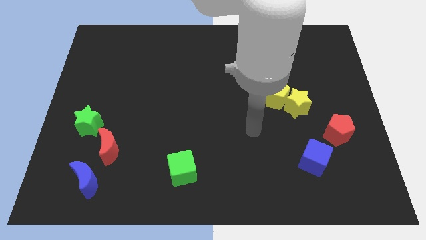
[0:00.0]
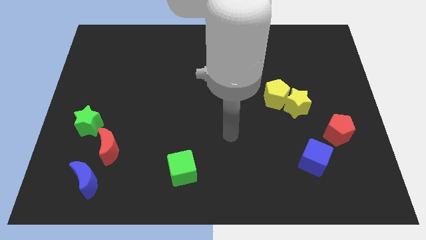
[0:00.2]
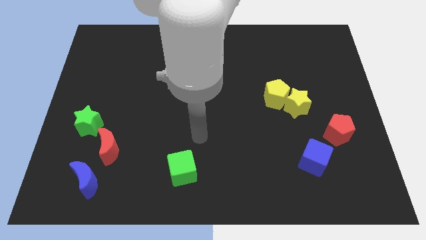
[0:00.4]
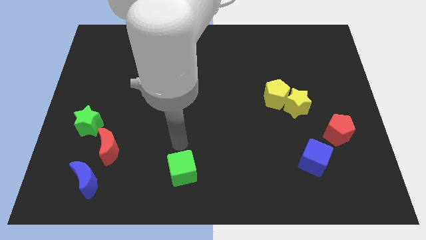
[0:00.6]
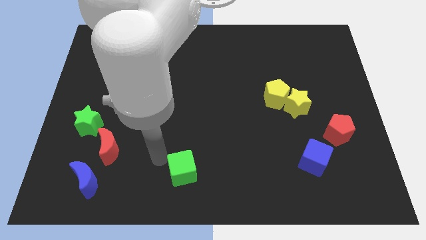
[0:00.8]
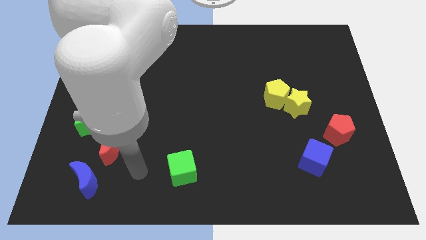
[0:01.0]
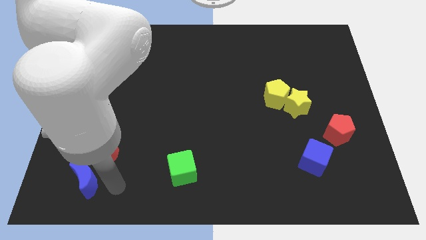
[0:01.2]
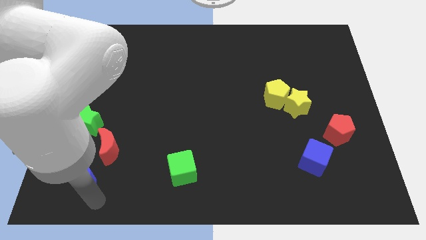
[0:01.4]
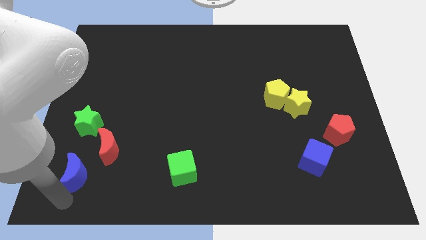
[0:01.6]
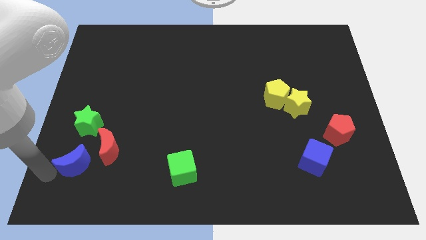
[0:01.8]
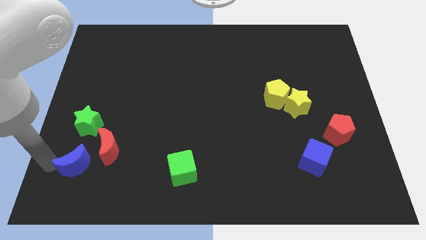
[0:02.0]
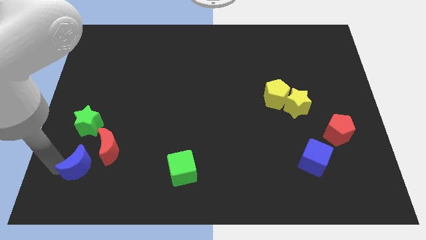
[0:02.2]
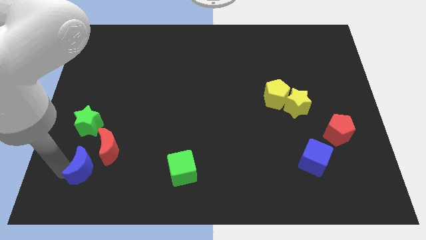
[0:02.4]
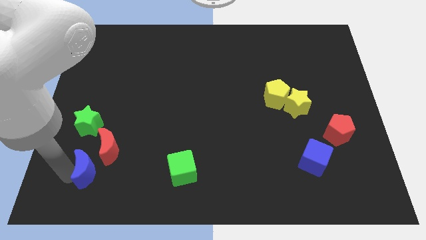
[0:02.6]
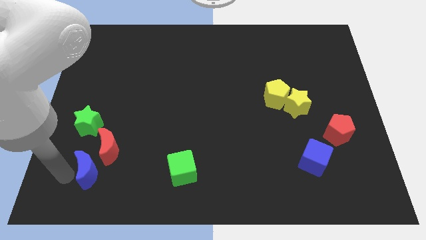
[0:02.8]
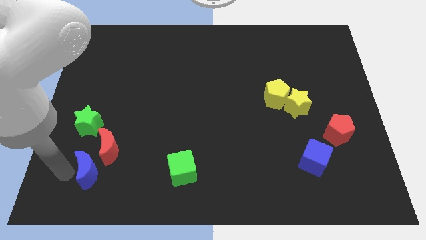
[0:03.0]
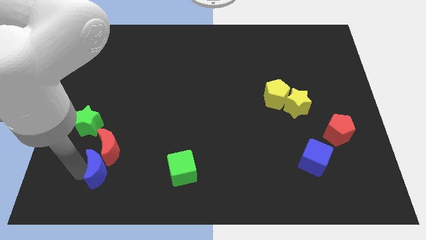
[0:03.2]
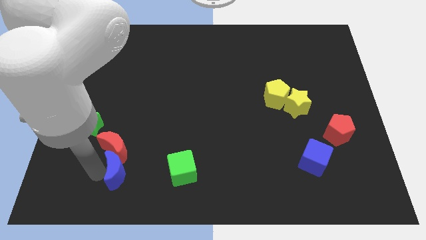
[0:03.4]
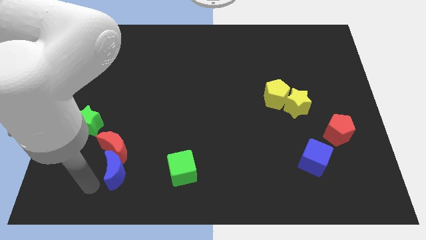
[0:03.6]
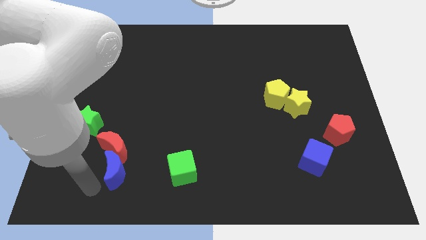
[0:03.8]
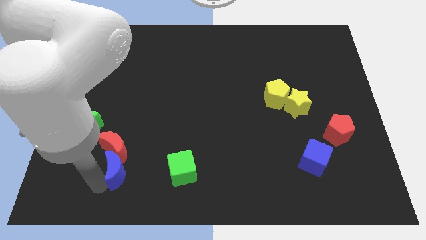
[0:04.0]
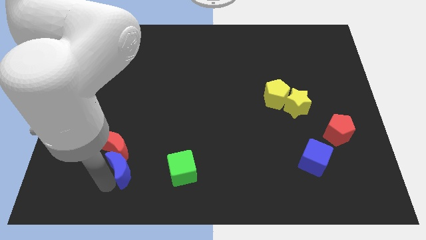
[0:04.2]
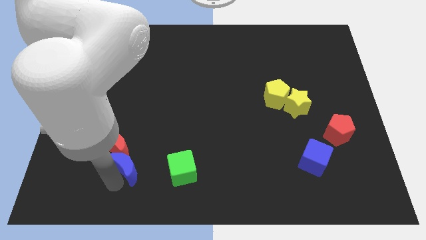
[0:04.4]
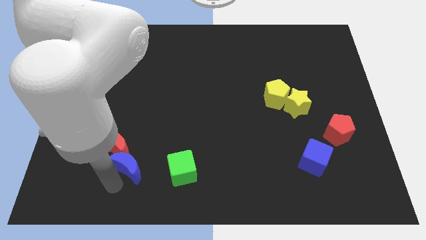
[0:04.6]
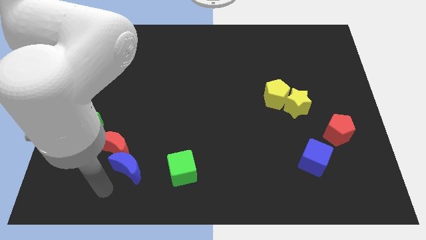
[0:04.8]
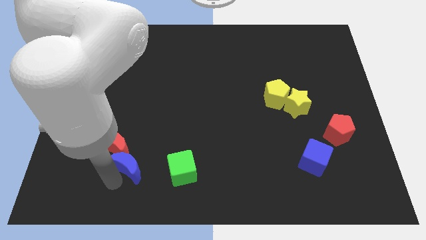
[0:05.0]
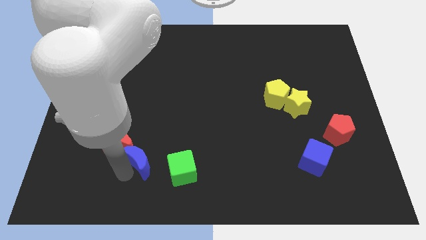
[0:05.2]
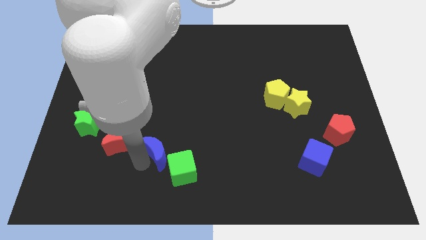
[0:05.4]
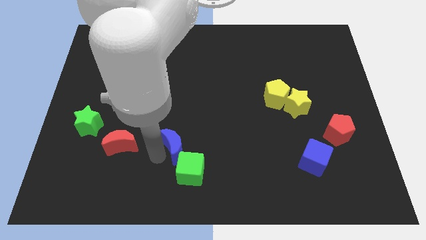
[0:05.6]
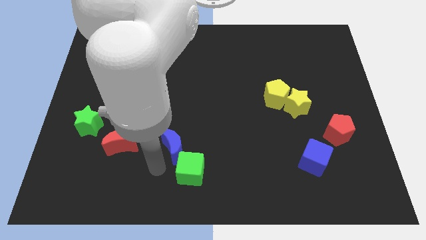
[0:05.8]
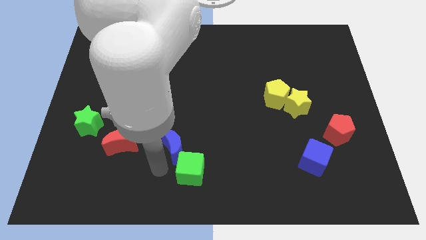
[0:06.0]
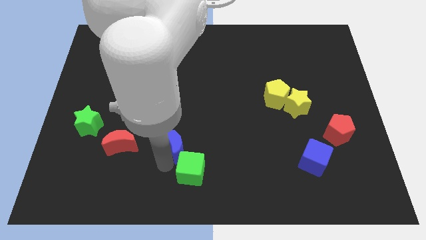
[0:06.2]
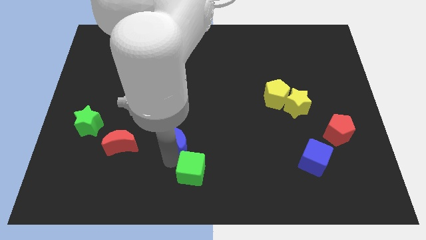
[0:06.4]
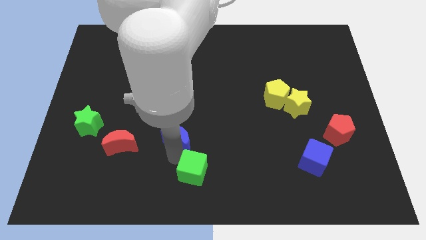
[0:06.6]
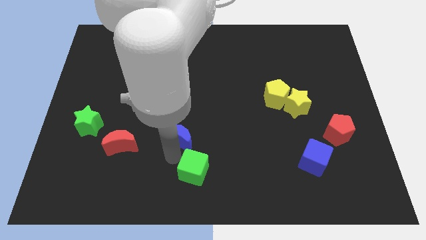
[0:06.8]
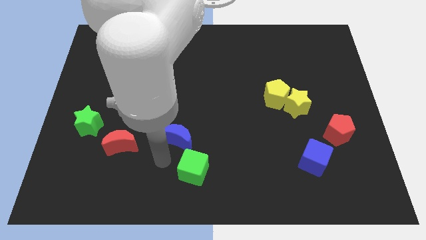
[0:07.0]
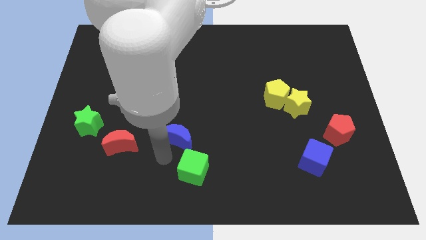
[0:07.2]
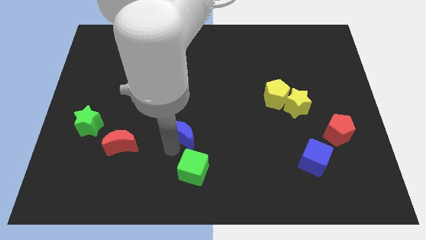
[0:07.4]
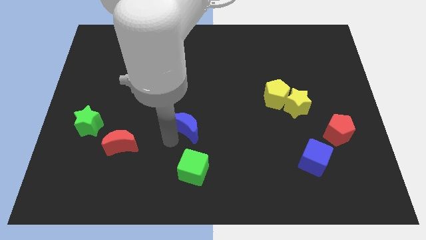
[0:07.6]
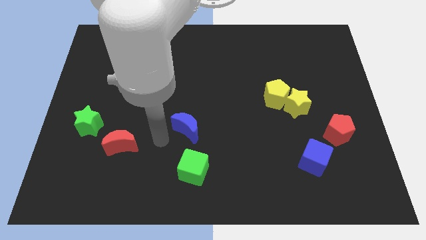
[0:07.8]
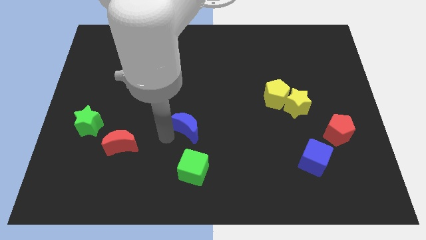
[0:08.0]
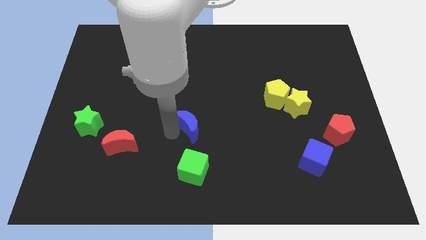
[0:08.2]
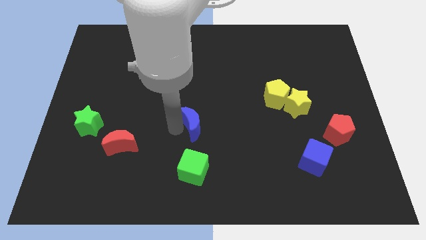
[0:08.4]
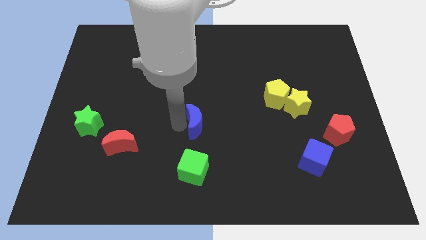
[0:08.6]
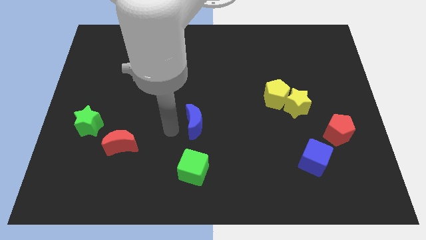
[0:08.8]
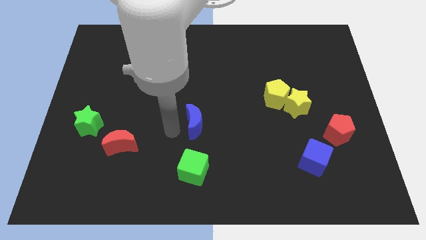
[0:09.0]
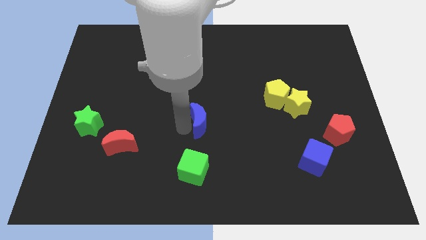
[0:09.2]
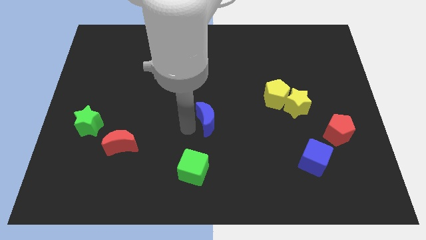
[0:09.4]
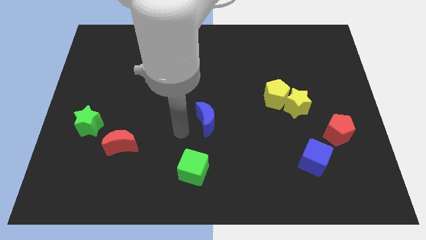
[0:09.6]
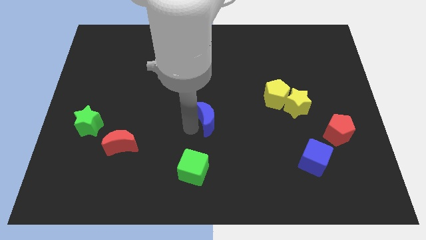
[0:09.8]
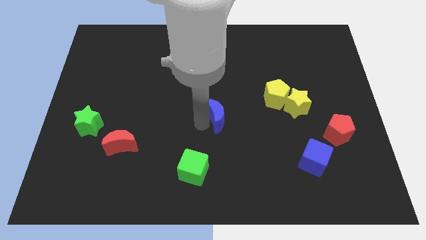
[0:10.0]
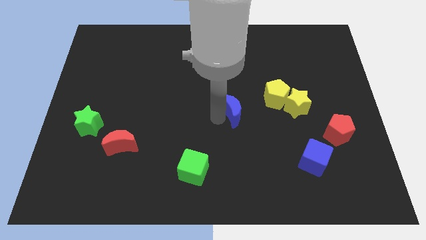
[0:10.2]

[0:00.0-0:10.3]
push the blue moon left of the yellow star

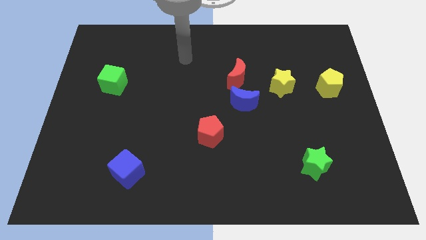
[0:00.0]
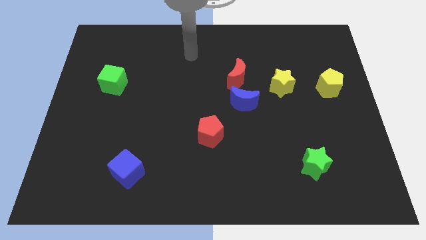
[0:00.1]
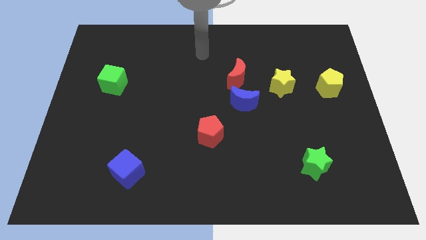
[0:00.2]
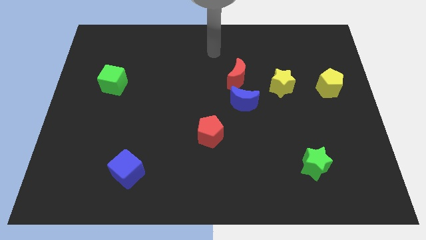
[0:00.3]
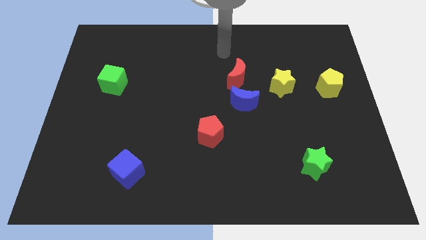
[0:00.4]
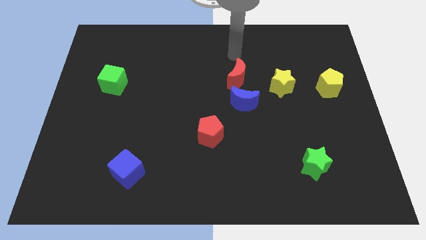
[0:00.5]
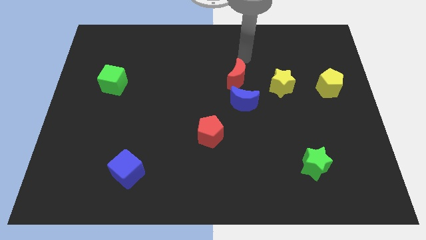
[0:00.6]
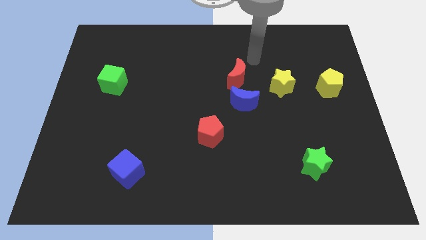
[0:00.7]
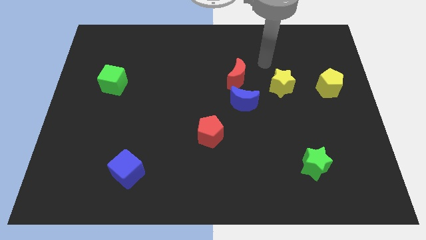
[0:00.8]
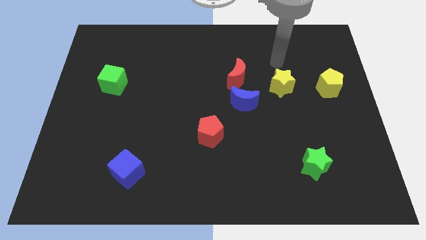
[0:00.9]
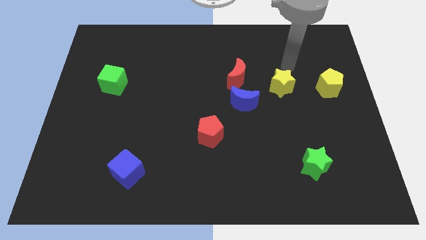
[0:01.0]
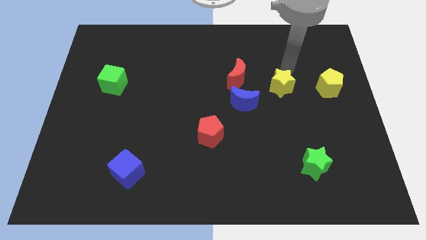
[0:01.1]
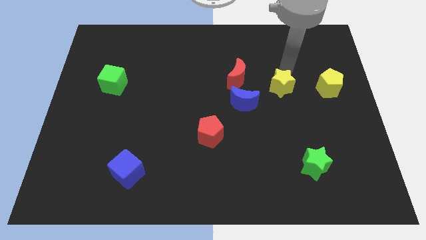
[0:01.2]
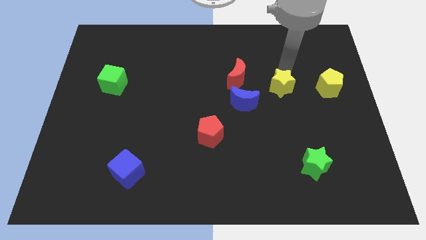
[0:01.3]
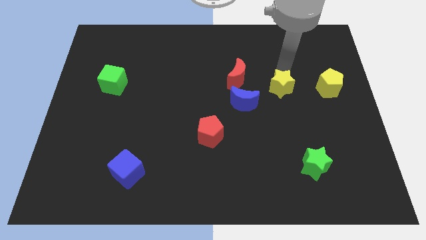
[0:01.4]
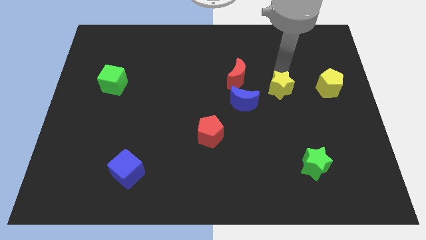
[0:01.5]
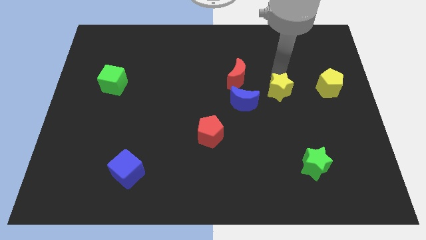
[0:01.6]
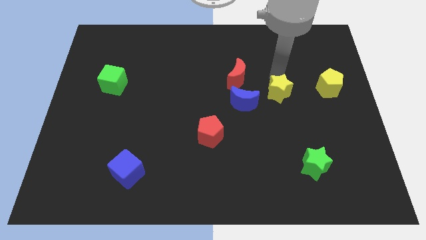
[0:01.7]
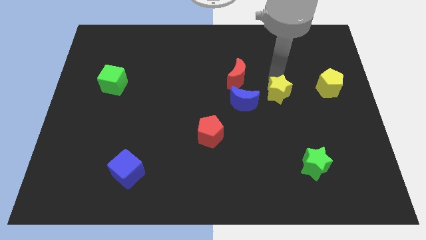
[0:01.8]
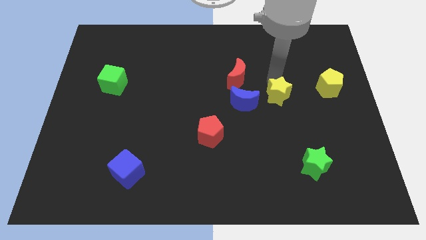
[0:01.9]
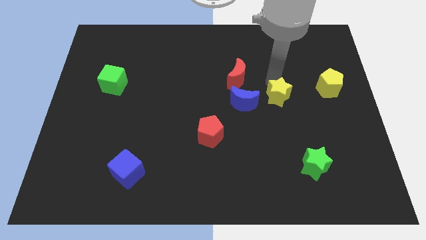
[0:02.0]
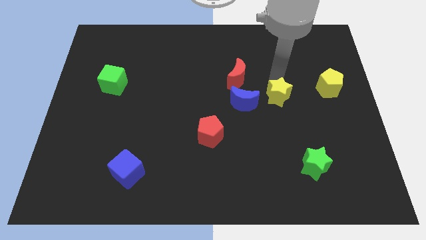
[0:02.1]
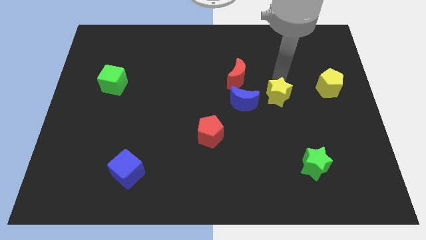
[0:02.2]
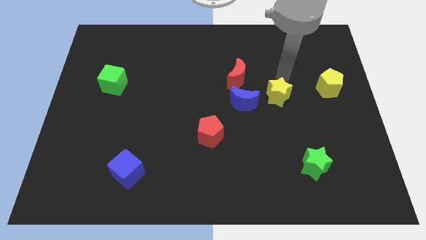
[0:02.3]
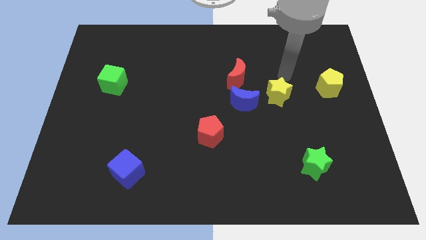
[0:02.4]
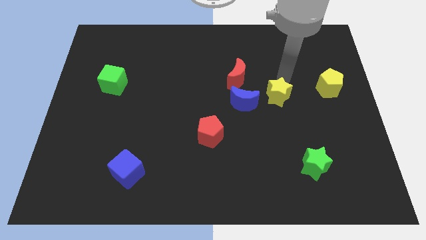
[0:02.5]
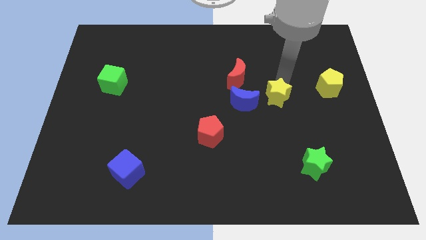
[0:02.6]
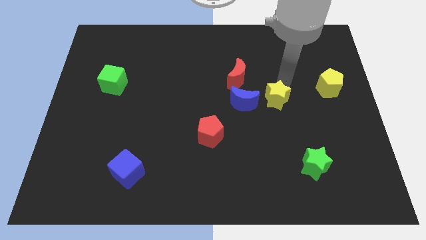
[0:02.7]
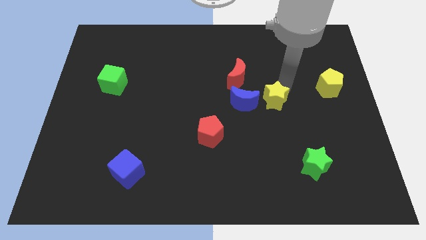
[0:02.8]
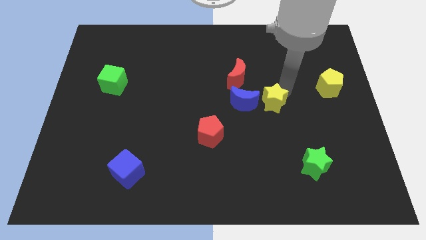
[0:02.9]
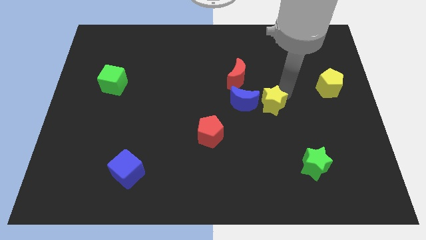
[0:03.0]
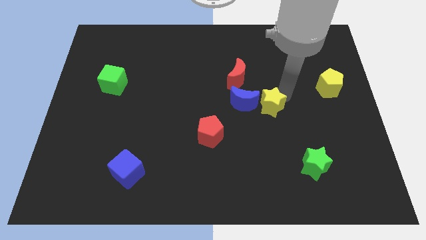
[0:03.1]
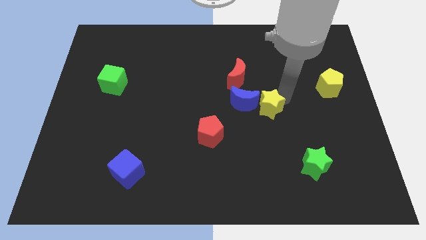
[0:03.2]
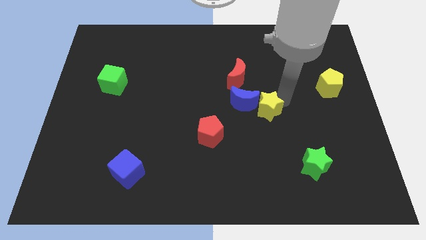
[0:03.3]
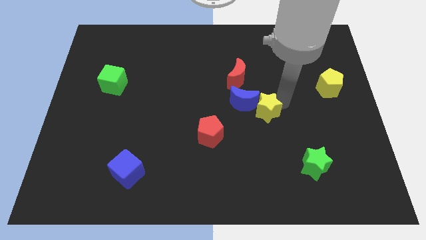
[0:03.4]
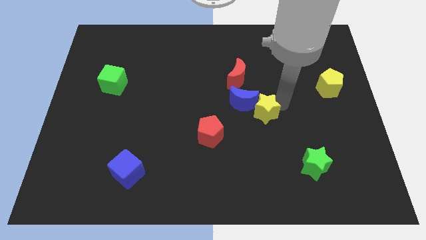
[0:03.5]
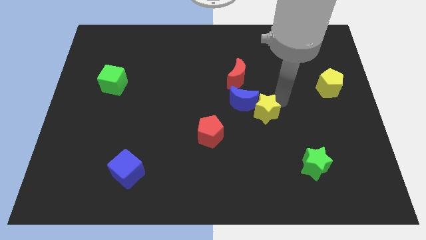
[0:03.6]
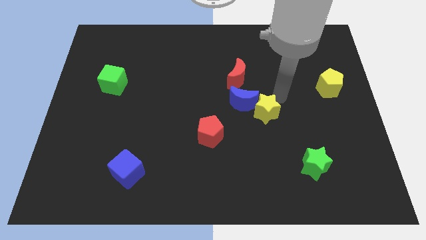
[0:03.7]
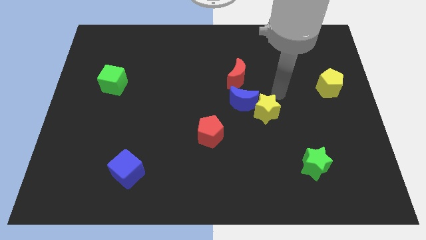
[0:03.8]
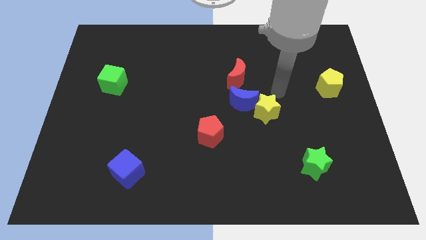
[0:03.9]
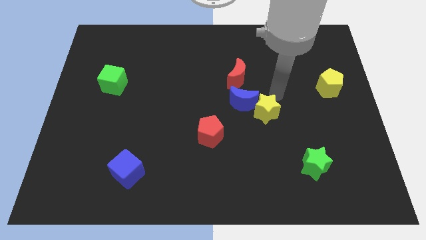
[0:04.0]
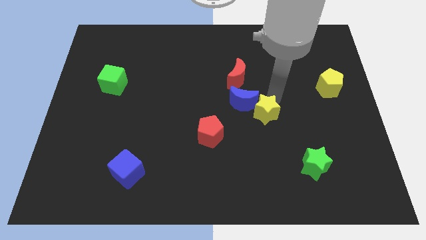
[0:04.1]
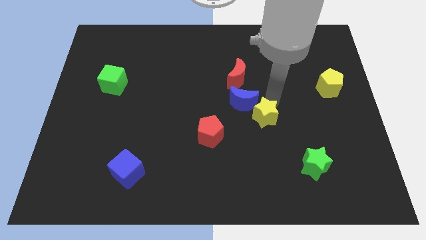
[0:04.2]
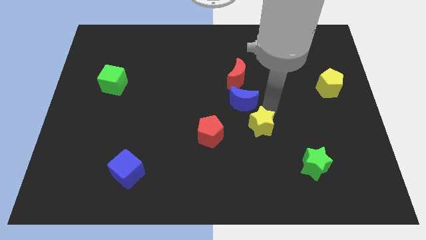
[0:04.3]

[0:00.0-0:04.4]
move the yellow star to the bottom of the blue moon
